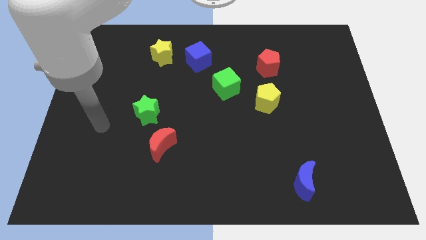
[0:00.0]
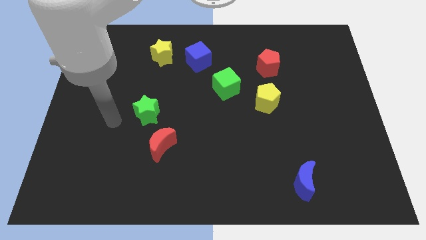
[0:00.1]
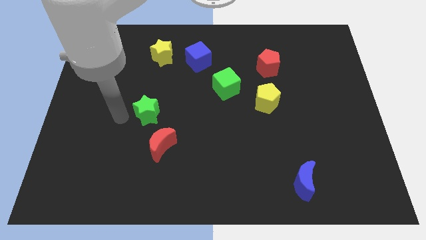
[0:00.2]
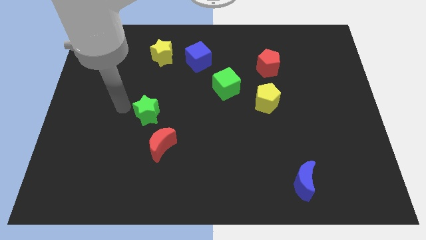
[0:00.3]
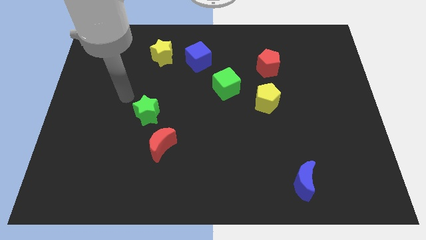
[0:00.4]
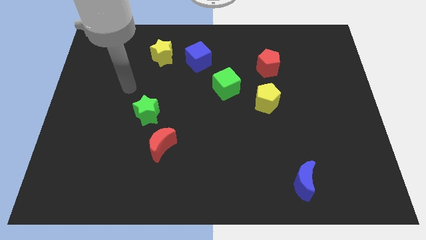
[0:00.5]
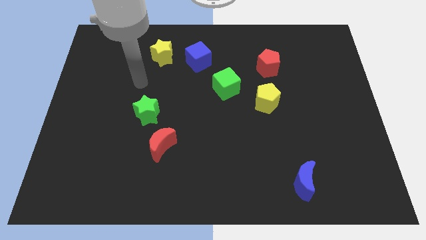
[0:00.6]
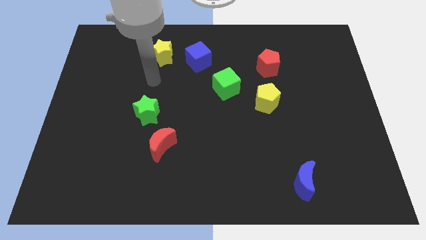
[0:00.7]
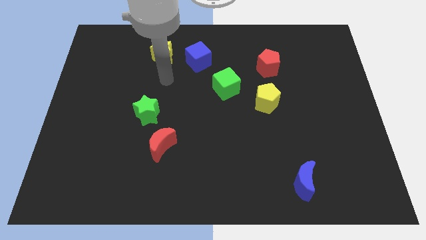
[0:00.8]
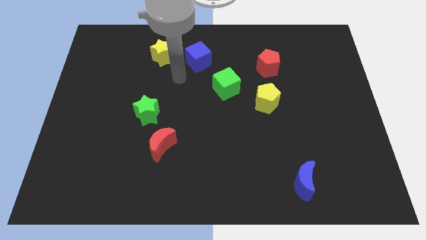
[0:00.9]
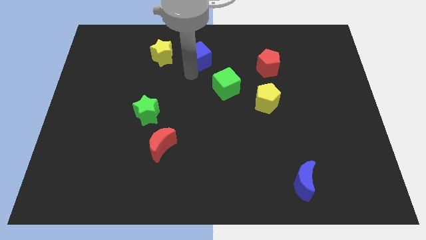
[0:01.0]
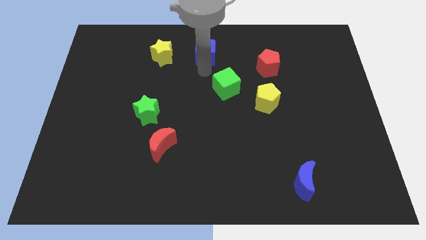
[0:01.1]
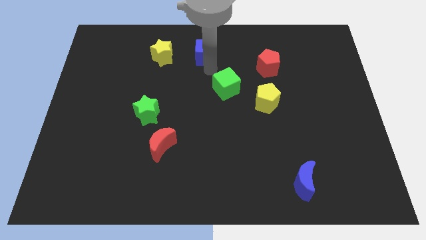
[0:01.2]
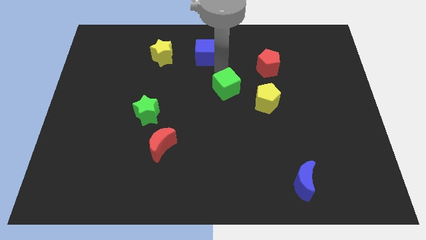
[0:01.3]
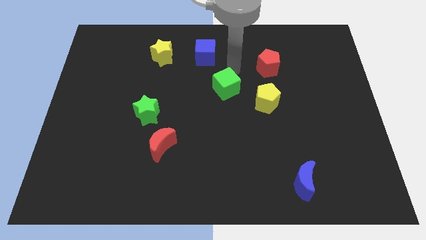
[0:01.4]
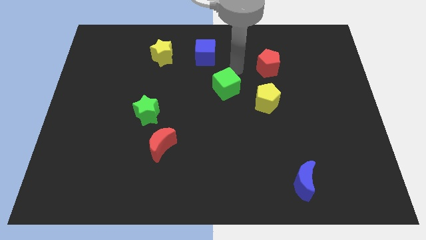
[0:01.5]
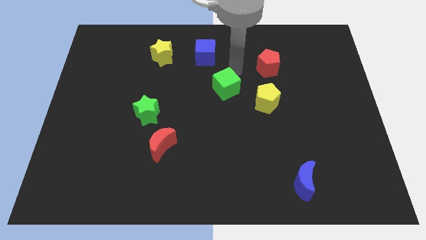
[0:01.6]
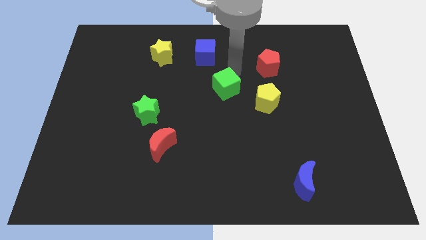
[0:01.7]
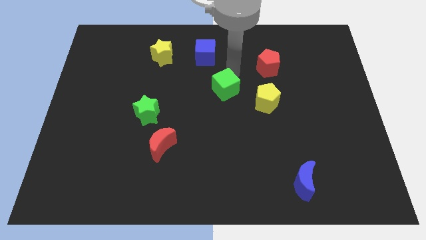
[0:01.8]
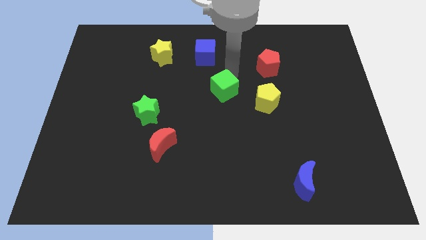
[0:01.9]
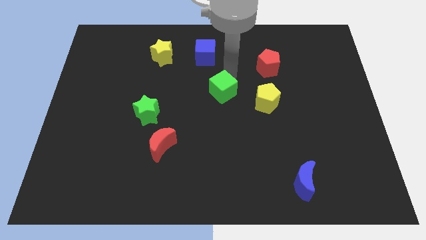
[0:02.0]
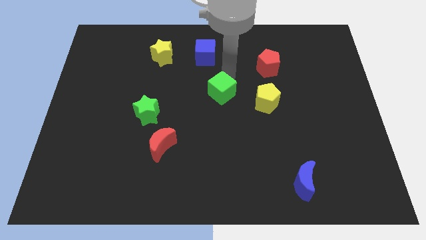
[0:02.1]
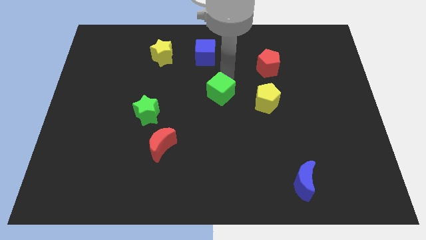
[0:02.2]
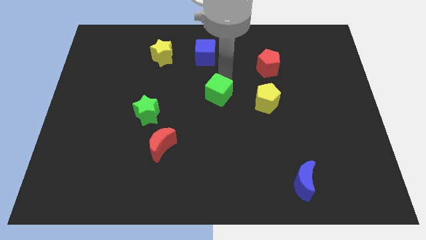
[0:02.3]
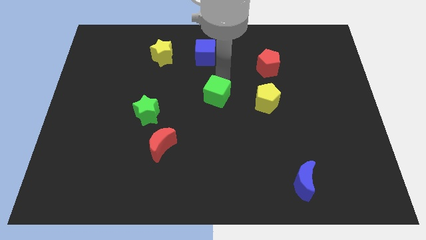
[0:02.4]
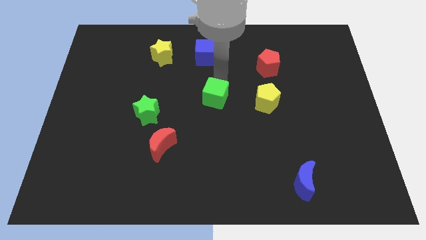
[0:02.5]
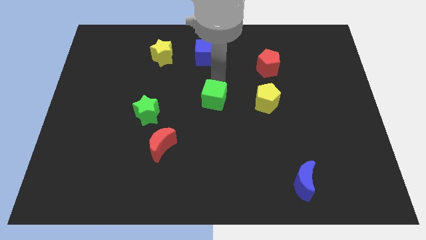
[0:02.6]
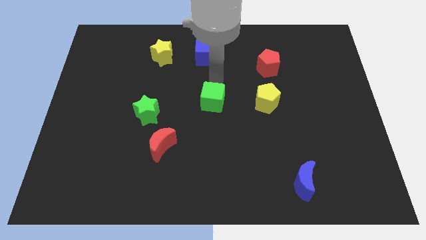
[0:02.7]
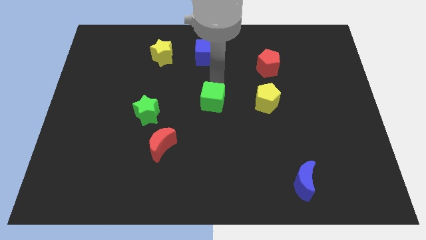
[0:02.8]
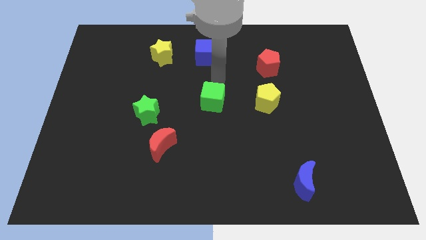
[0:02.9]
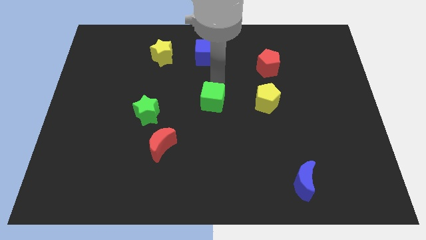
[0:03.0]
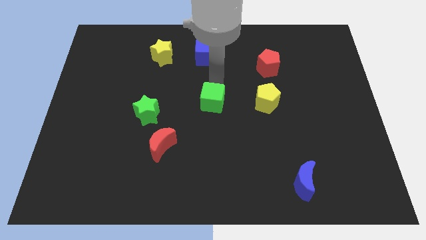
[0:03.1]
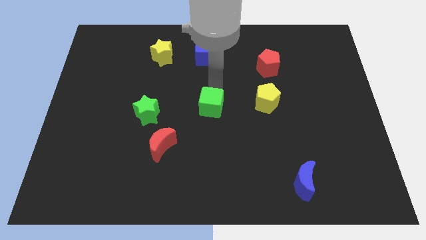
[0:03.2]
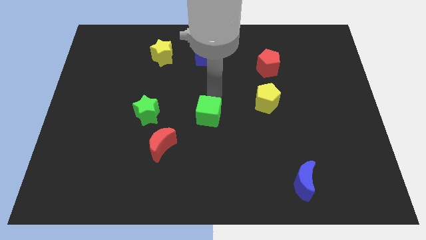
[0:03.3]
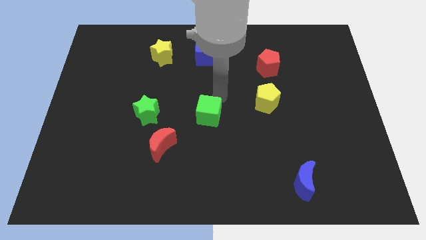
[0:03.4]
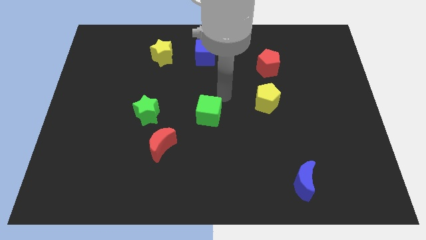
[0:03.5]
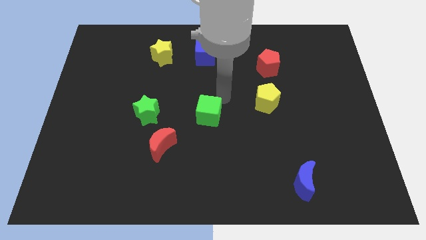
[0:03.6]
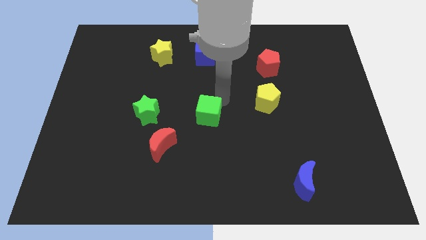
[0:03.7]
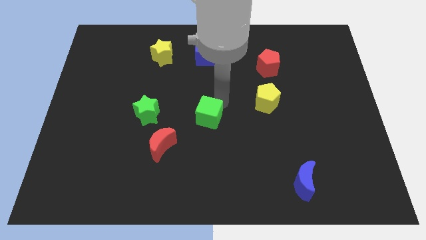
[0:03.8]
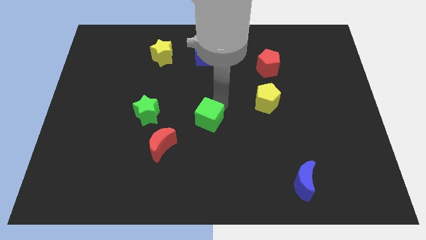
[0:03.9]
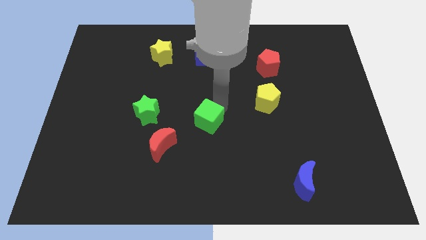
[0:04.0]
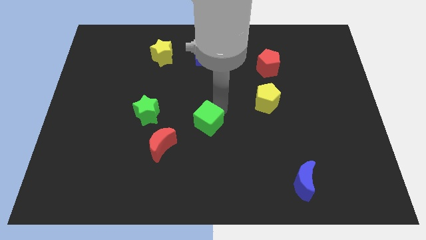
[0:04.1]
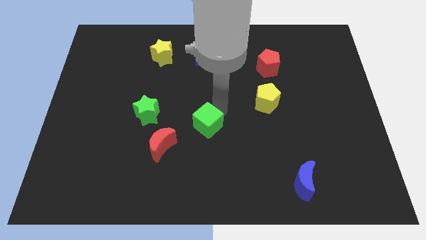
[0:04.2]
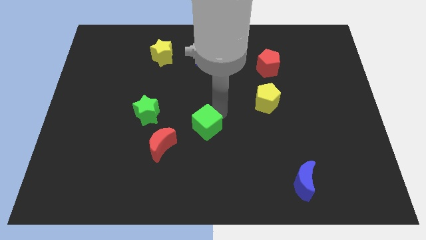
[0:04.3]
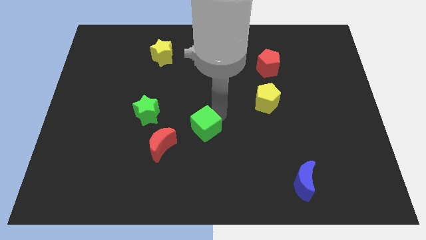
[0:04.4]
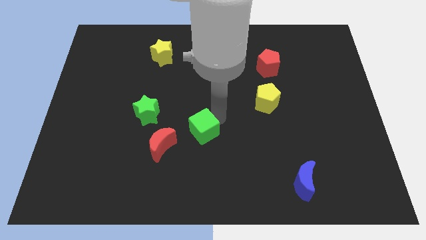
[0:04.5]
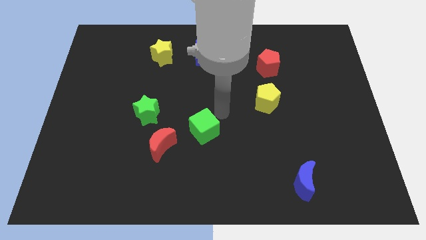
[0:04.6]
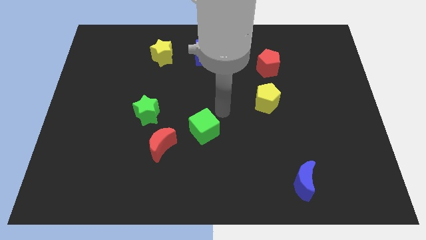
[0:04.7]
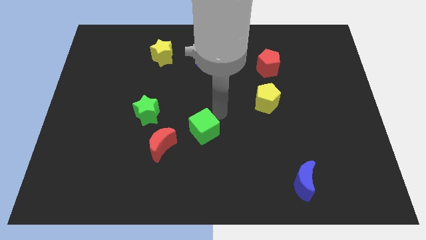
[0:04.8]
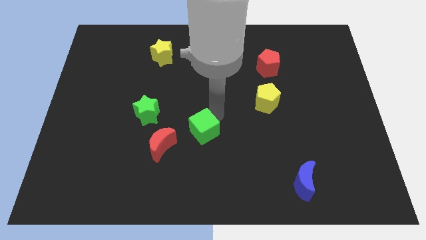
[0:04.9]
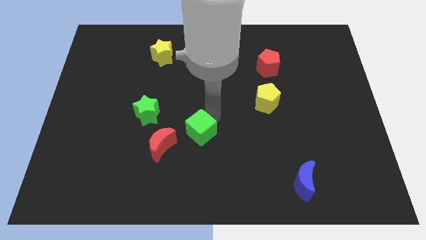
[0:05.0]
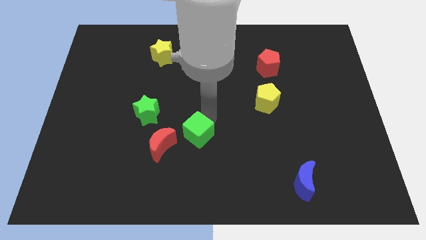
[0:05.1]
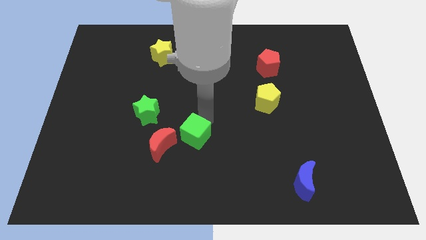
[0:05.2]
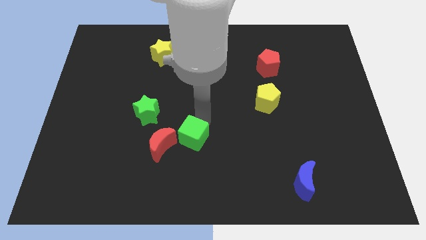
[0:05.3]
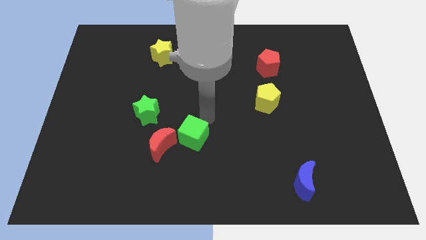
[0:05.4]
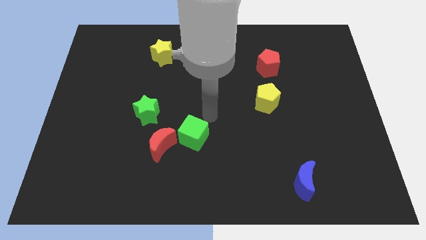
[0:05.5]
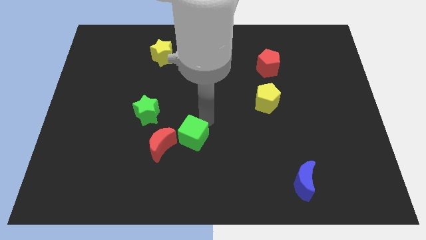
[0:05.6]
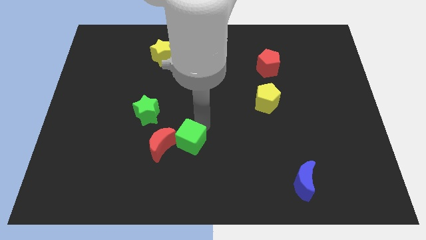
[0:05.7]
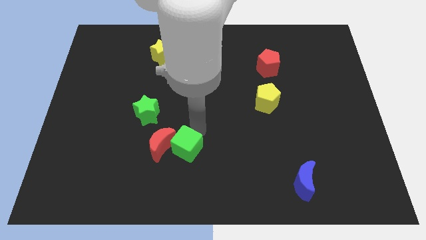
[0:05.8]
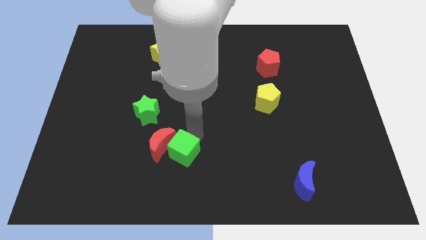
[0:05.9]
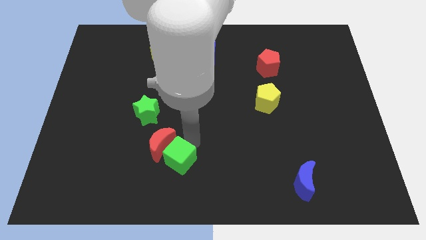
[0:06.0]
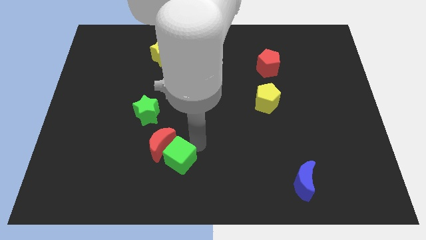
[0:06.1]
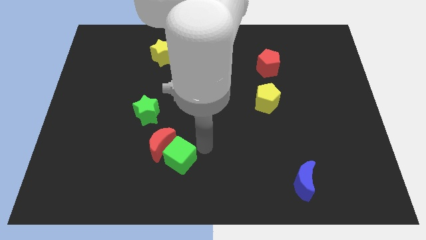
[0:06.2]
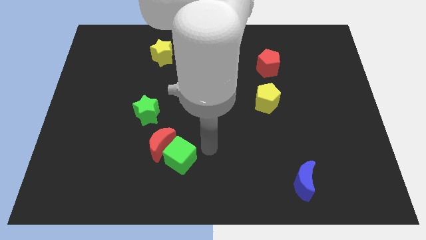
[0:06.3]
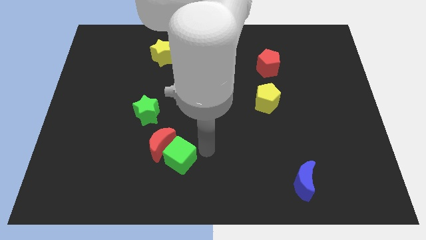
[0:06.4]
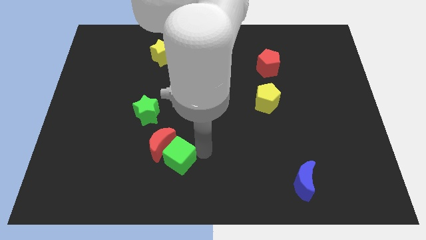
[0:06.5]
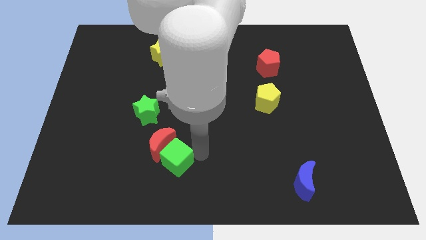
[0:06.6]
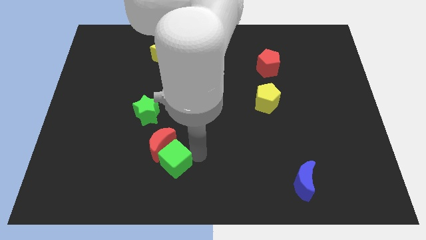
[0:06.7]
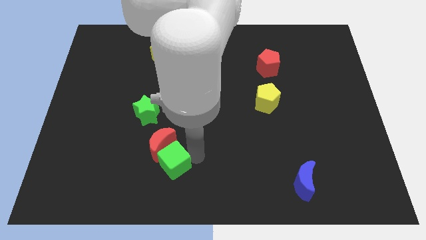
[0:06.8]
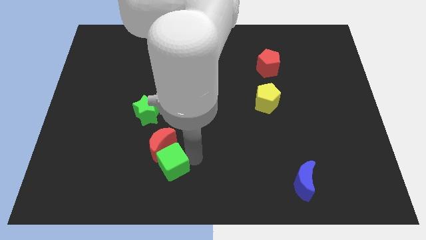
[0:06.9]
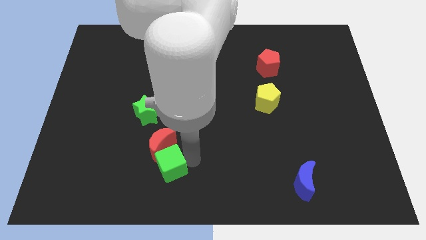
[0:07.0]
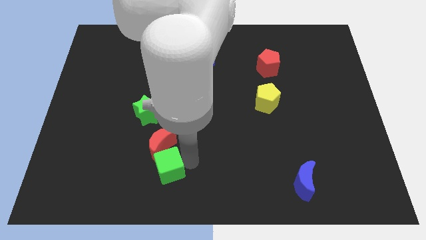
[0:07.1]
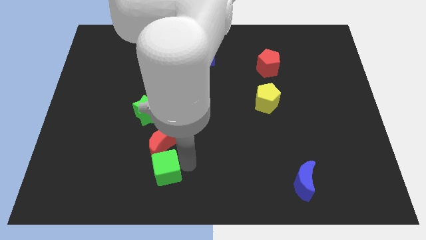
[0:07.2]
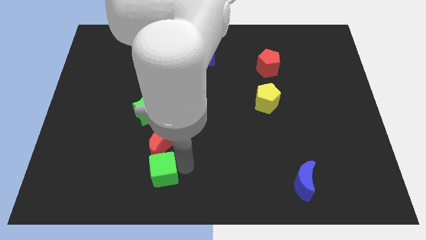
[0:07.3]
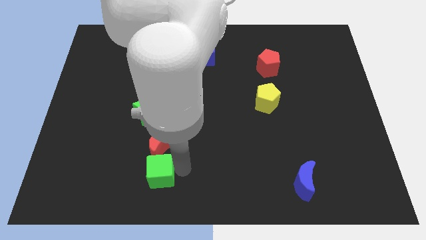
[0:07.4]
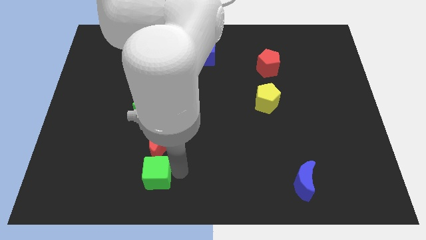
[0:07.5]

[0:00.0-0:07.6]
put the green cube to the bottom left side of the red moon

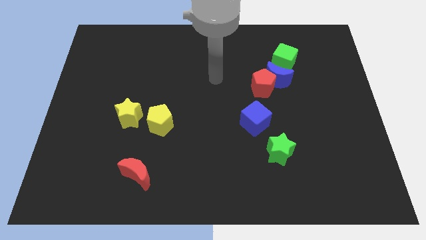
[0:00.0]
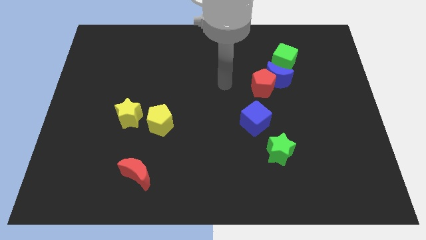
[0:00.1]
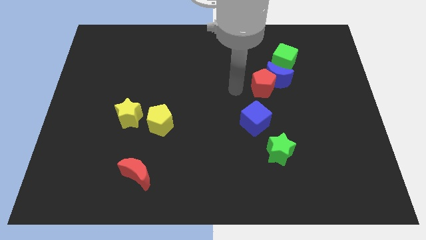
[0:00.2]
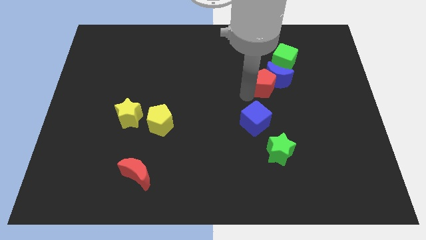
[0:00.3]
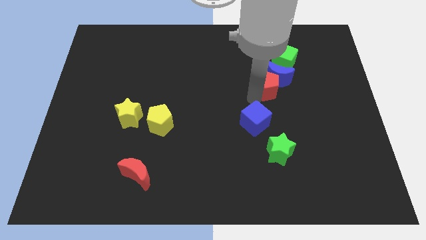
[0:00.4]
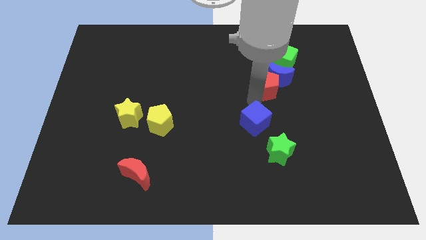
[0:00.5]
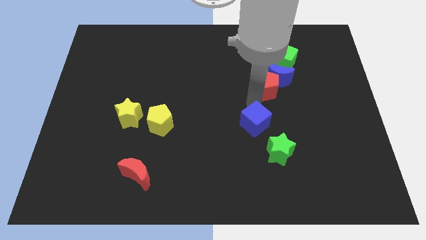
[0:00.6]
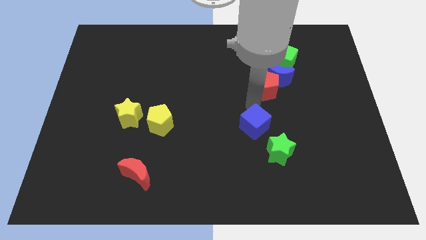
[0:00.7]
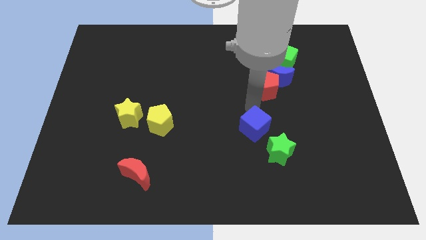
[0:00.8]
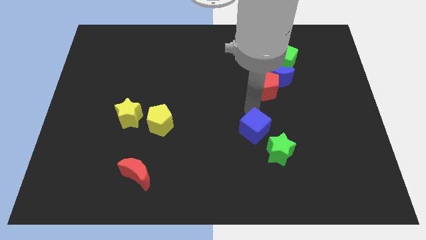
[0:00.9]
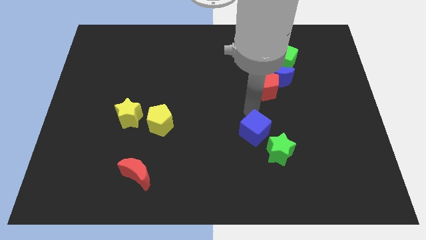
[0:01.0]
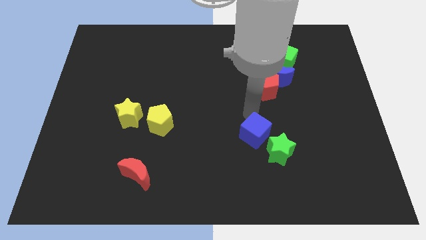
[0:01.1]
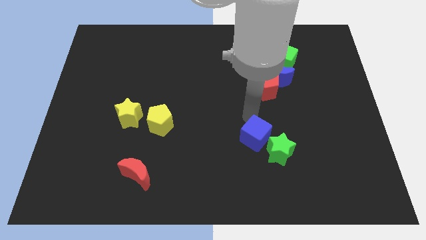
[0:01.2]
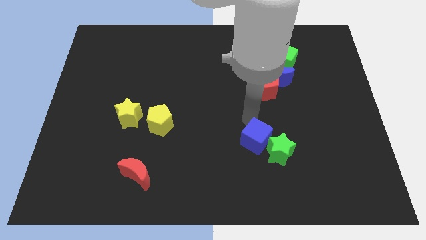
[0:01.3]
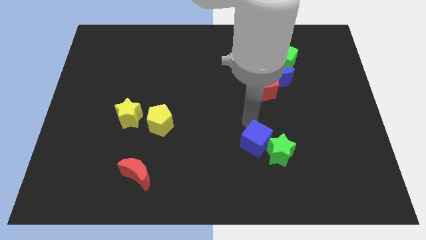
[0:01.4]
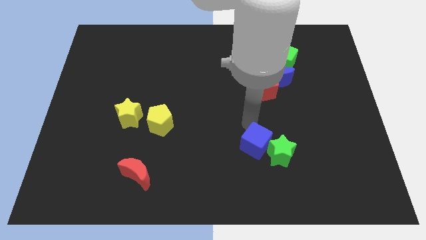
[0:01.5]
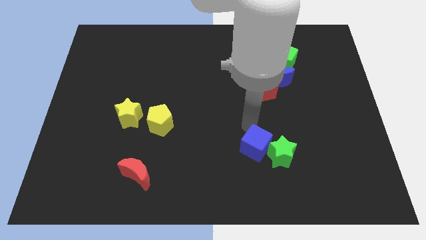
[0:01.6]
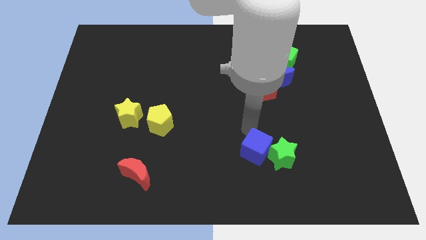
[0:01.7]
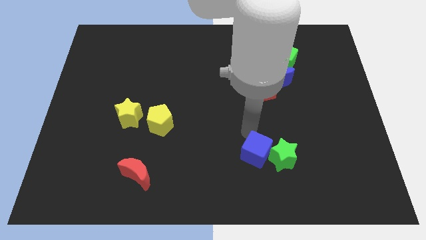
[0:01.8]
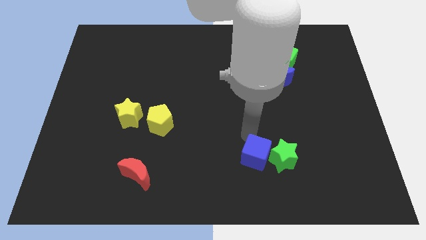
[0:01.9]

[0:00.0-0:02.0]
move the blue cube to the bottom left of the green star
